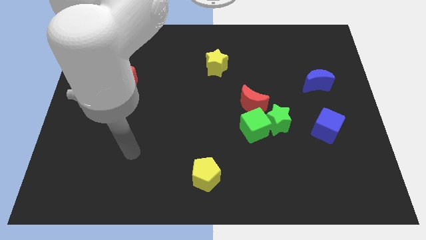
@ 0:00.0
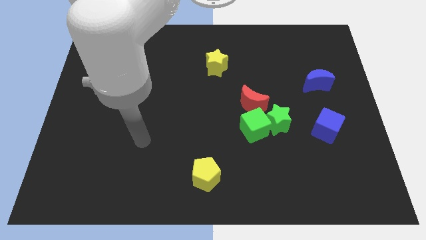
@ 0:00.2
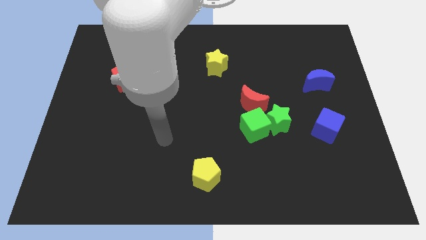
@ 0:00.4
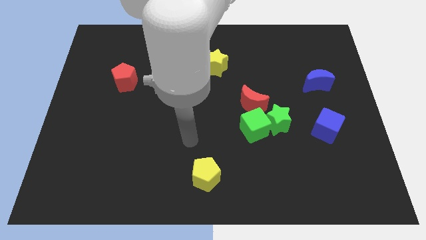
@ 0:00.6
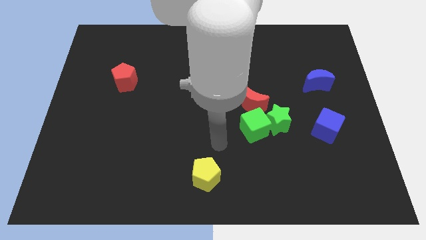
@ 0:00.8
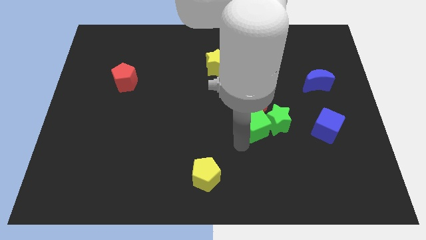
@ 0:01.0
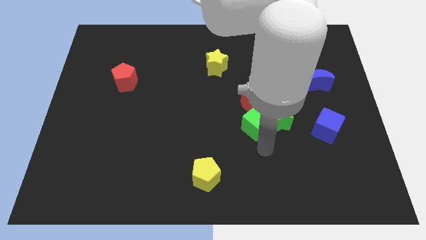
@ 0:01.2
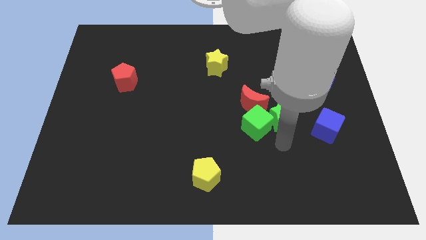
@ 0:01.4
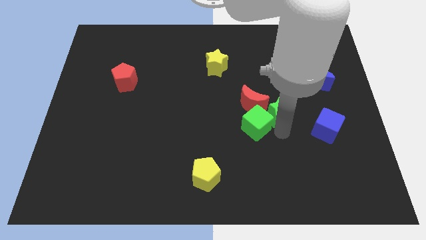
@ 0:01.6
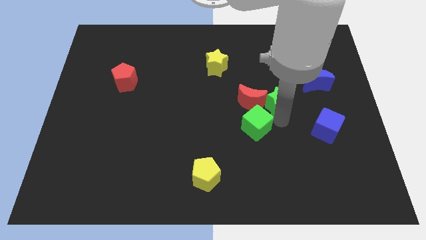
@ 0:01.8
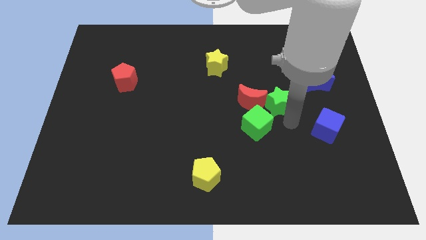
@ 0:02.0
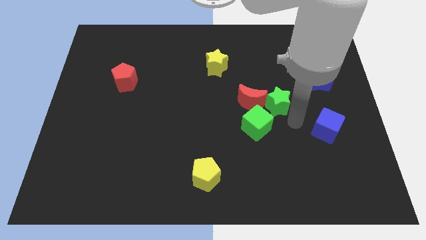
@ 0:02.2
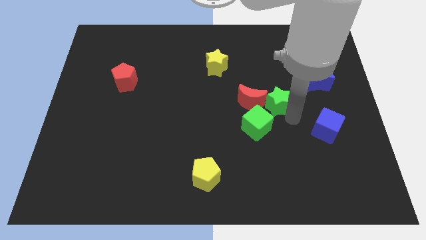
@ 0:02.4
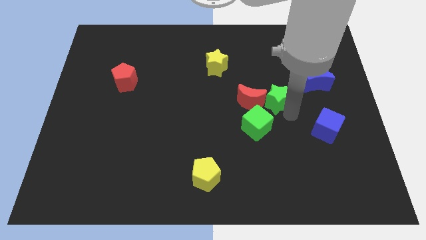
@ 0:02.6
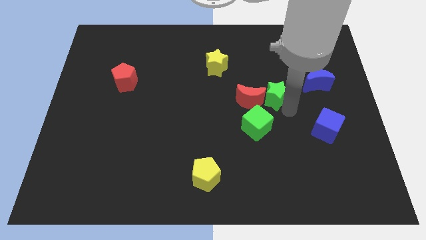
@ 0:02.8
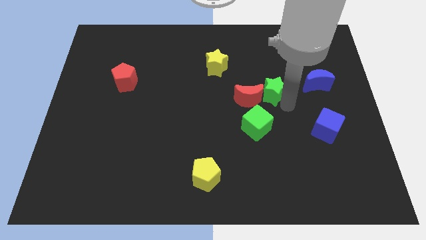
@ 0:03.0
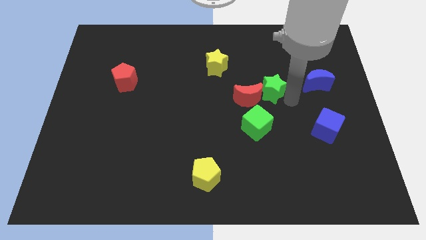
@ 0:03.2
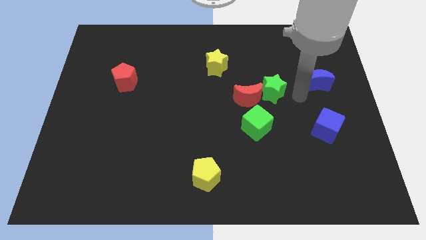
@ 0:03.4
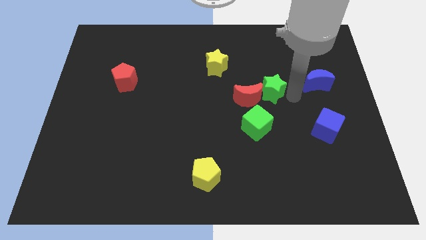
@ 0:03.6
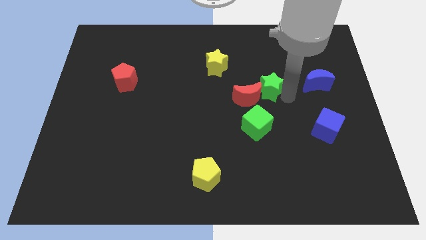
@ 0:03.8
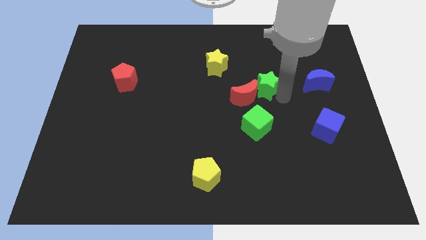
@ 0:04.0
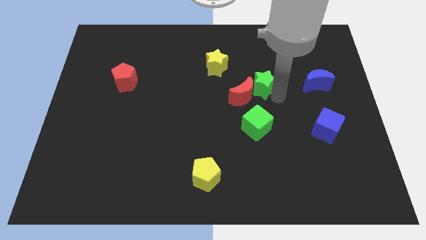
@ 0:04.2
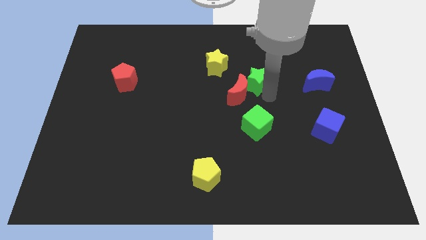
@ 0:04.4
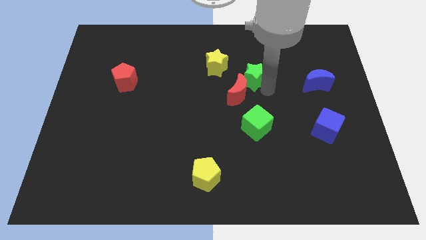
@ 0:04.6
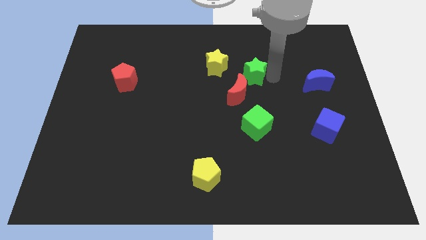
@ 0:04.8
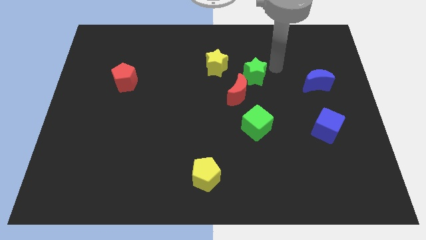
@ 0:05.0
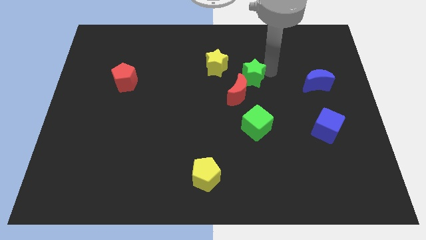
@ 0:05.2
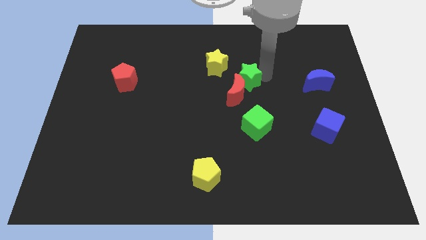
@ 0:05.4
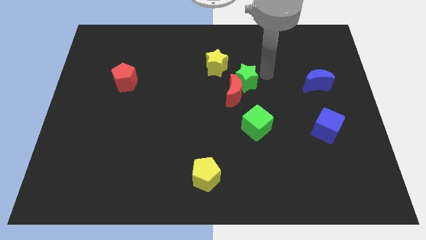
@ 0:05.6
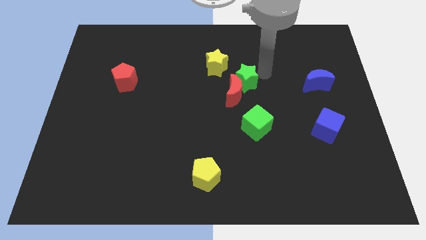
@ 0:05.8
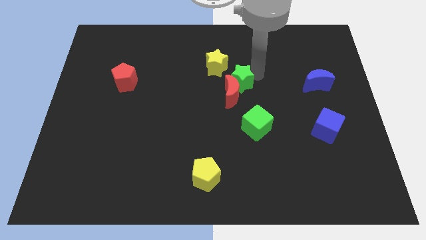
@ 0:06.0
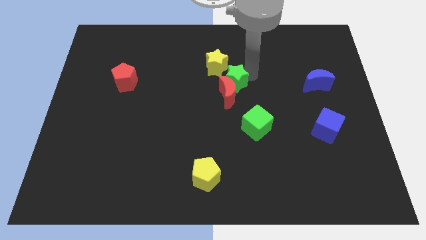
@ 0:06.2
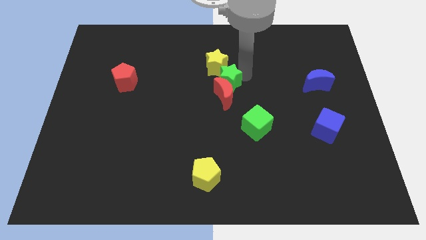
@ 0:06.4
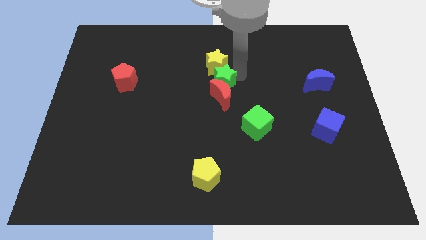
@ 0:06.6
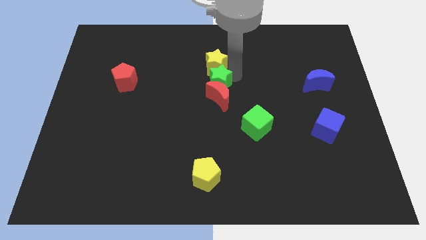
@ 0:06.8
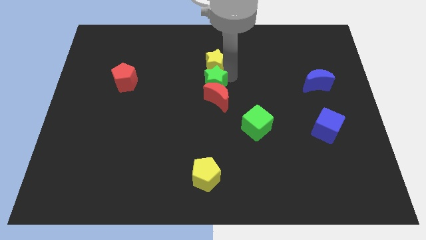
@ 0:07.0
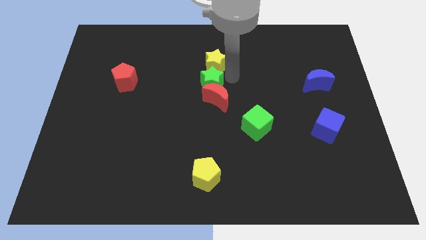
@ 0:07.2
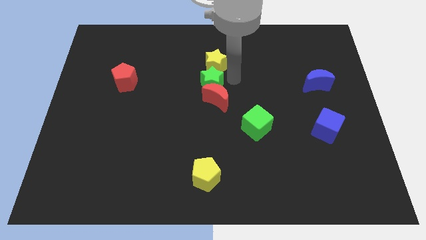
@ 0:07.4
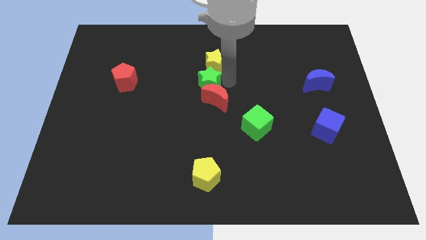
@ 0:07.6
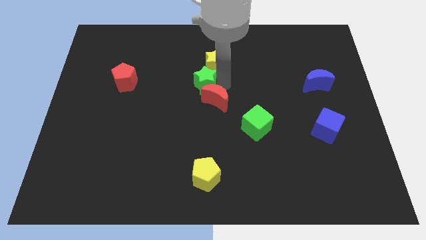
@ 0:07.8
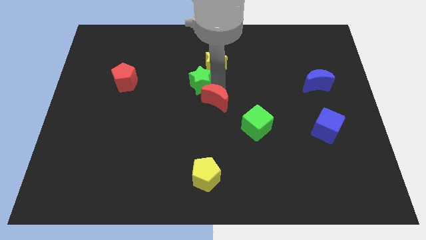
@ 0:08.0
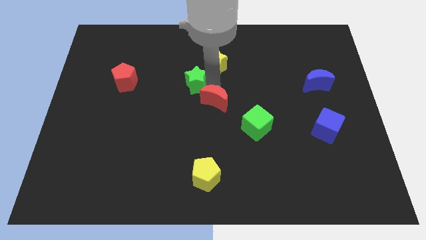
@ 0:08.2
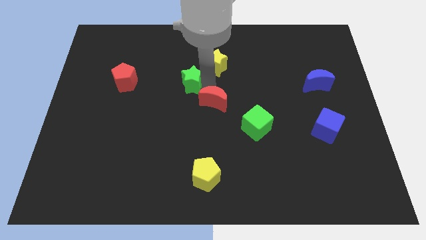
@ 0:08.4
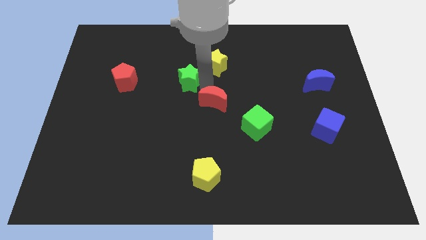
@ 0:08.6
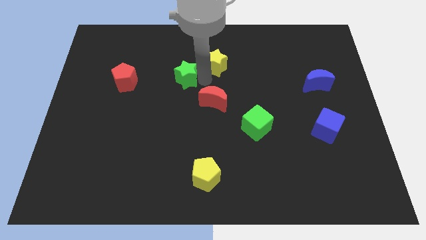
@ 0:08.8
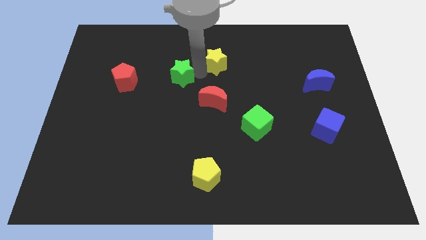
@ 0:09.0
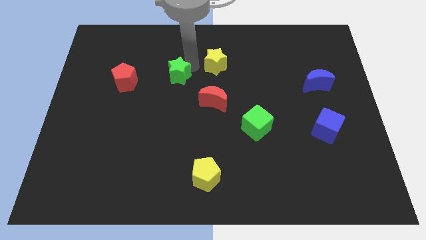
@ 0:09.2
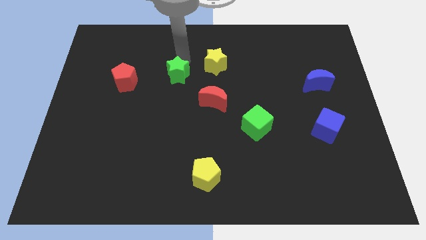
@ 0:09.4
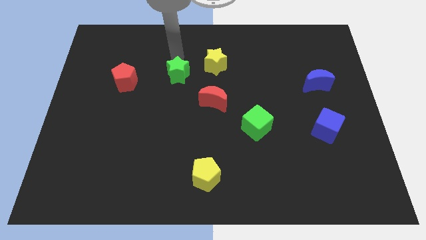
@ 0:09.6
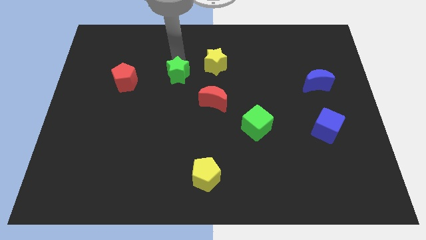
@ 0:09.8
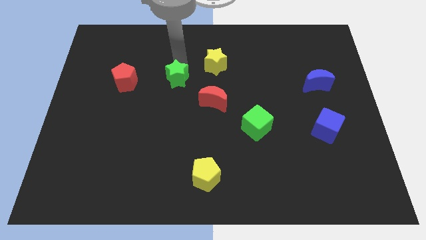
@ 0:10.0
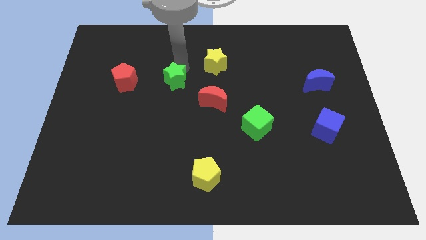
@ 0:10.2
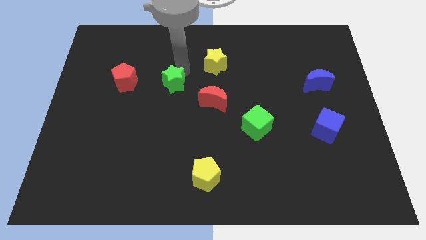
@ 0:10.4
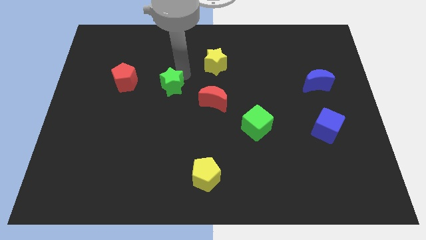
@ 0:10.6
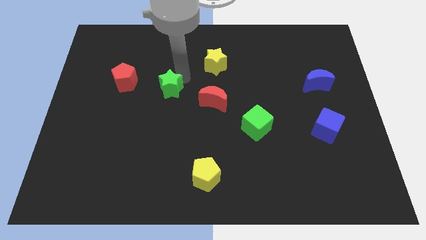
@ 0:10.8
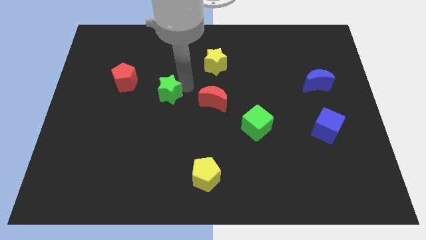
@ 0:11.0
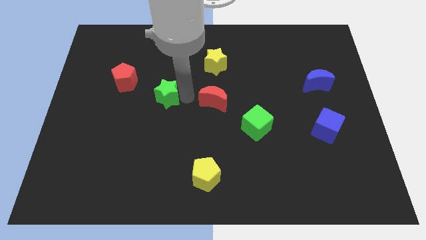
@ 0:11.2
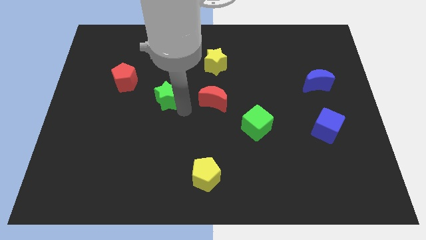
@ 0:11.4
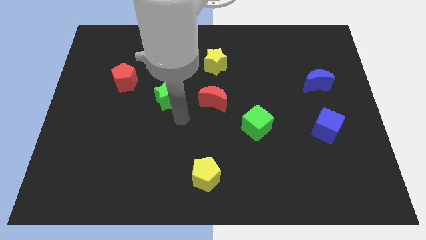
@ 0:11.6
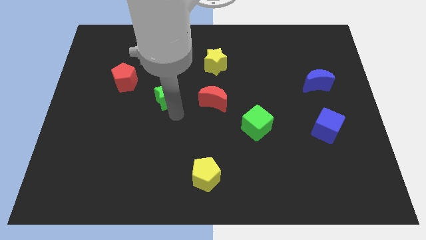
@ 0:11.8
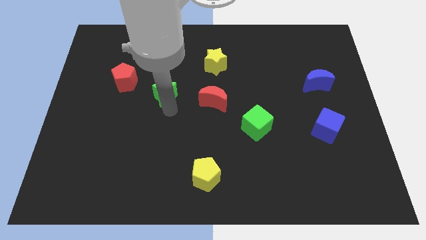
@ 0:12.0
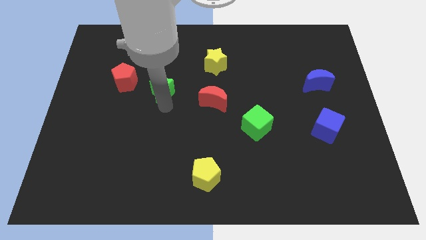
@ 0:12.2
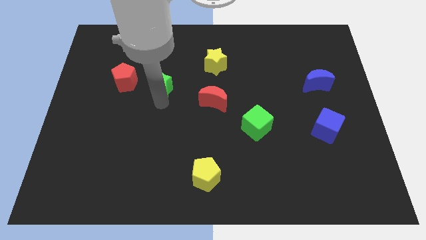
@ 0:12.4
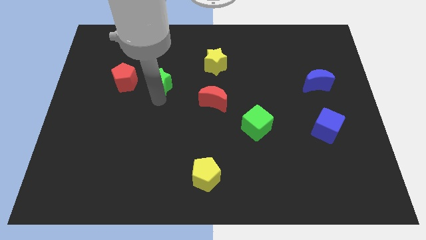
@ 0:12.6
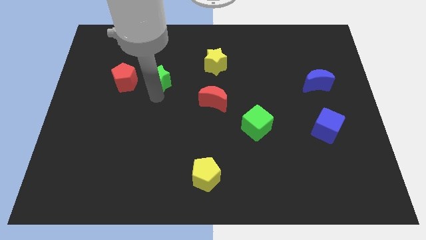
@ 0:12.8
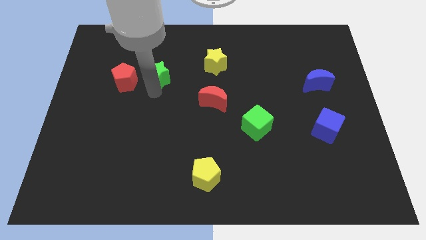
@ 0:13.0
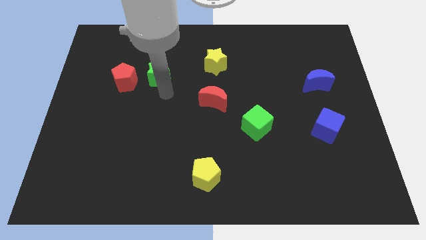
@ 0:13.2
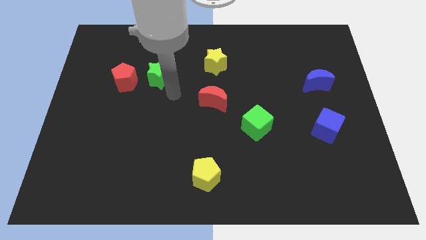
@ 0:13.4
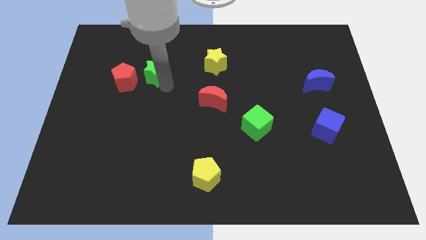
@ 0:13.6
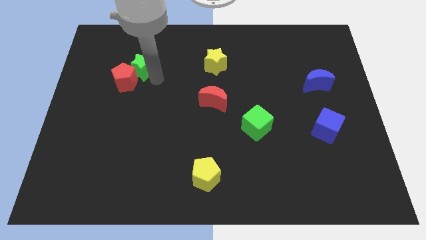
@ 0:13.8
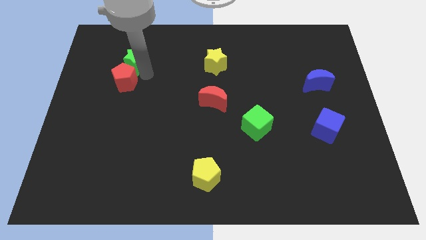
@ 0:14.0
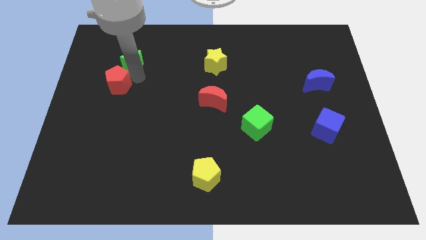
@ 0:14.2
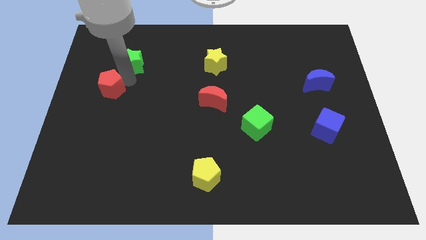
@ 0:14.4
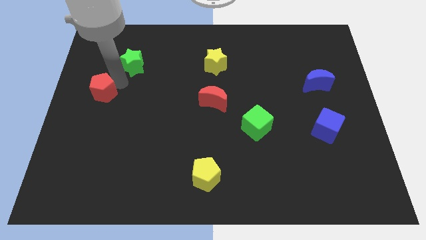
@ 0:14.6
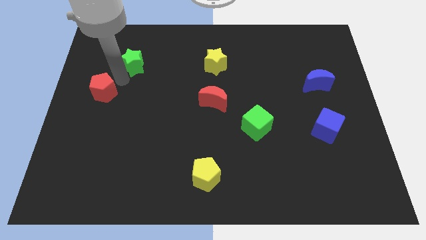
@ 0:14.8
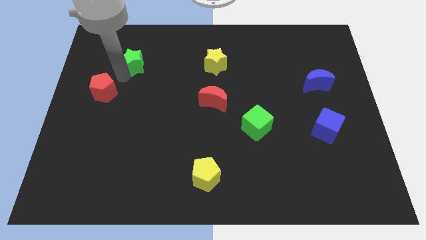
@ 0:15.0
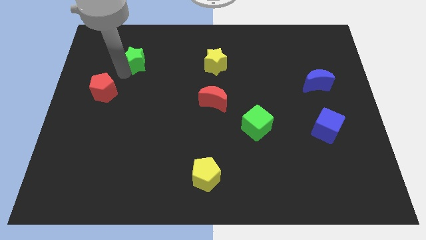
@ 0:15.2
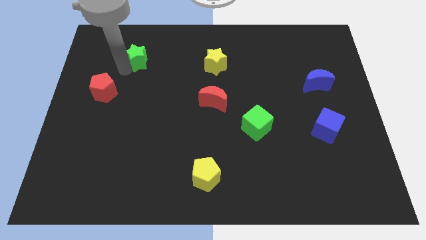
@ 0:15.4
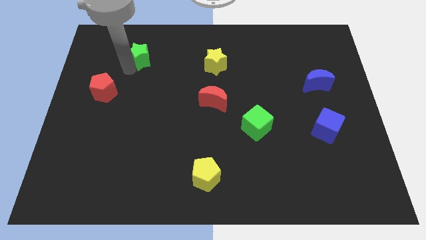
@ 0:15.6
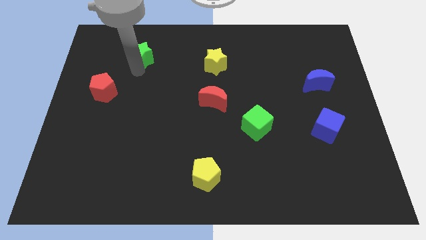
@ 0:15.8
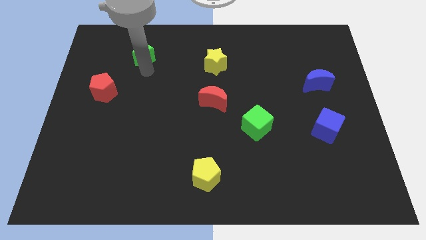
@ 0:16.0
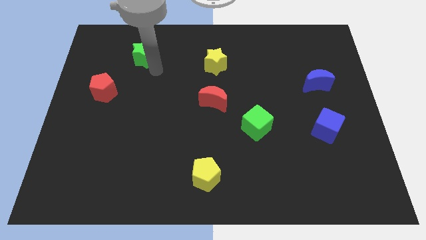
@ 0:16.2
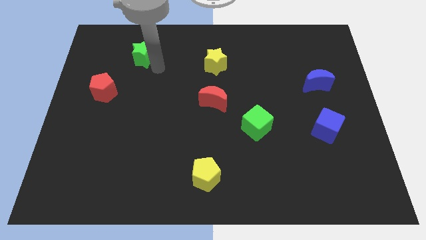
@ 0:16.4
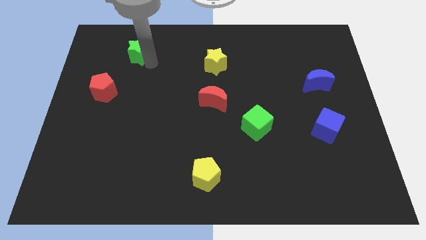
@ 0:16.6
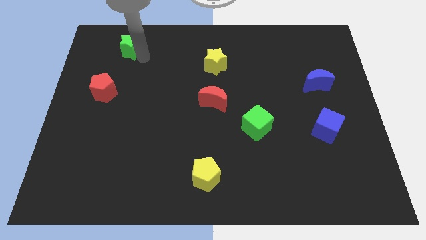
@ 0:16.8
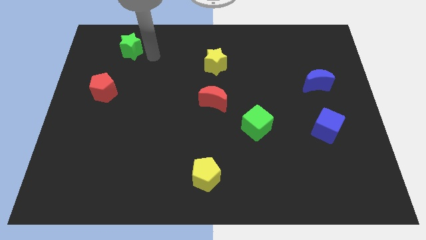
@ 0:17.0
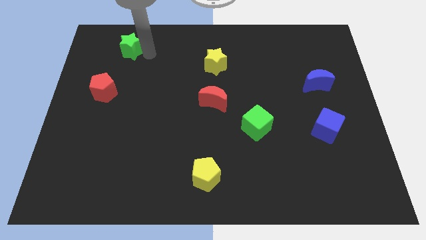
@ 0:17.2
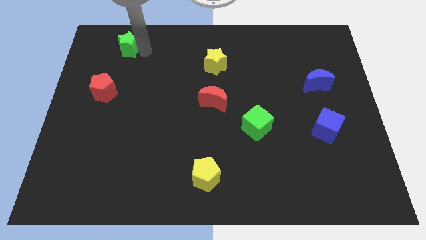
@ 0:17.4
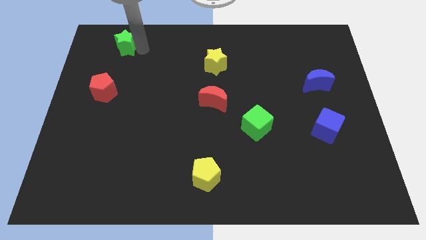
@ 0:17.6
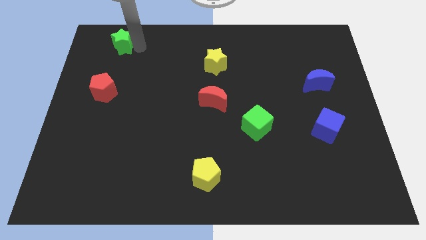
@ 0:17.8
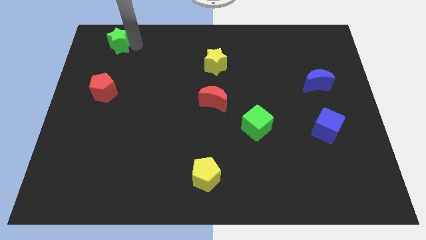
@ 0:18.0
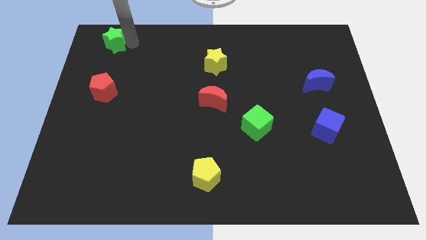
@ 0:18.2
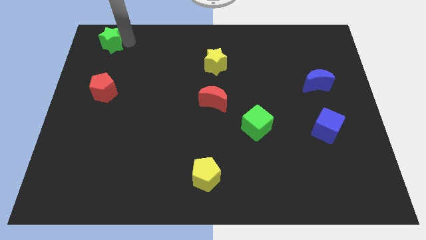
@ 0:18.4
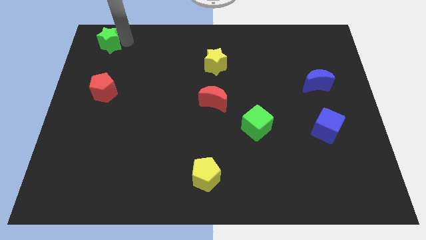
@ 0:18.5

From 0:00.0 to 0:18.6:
put the green star to the upper left corner
